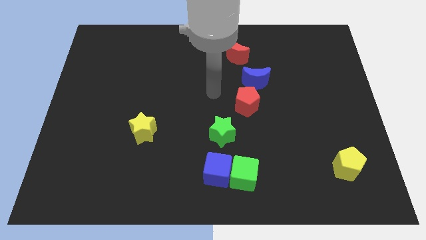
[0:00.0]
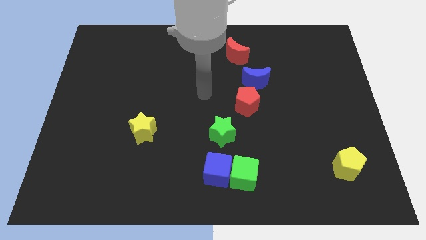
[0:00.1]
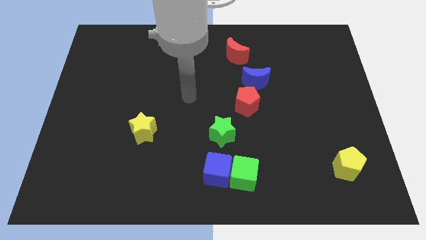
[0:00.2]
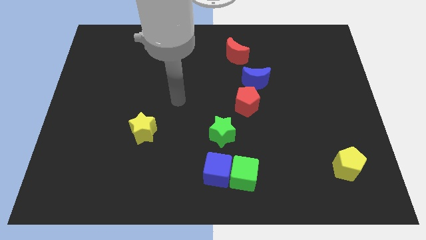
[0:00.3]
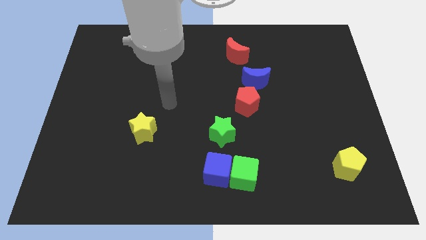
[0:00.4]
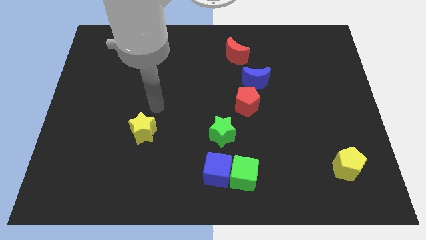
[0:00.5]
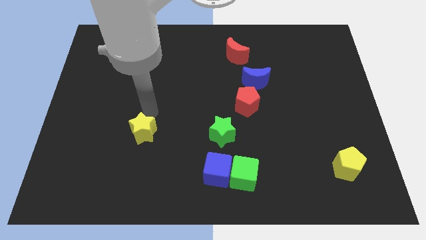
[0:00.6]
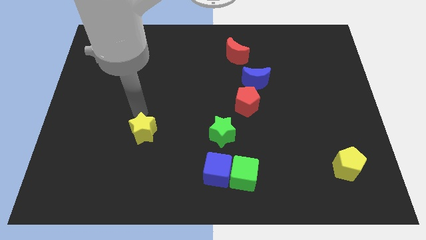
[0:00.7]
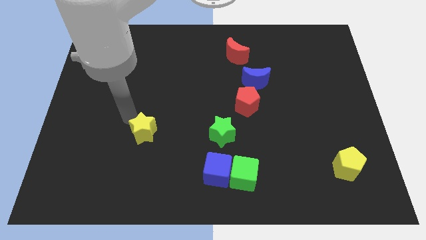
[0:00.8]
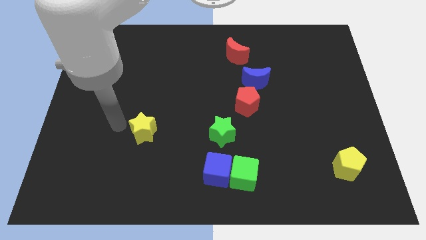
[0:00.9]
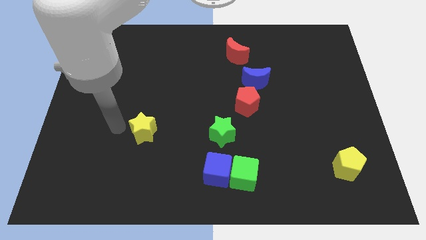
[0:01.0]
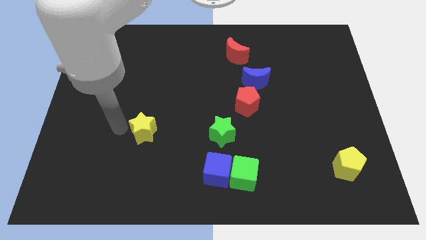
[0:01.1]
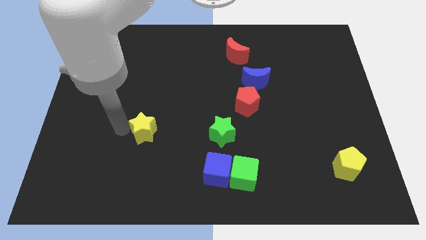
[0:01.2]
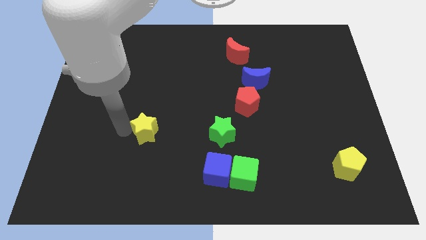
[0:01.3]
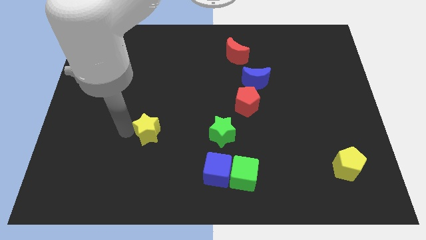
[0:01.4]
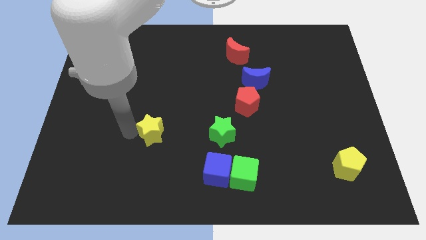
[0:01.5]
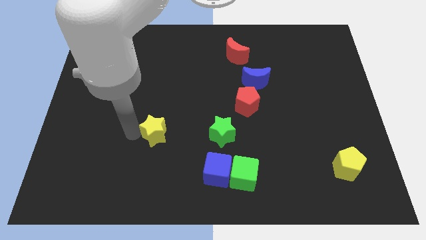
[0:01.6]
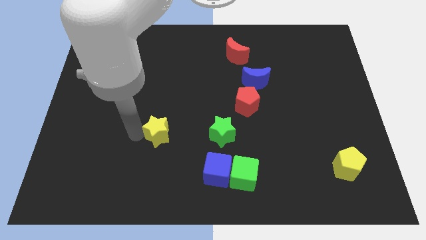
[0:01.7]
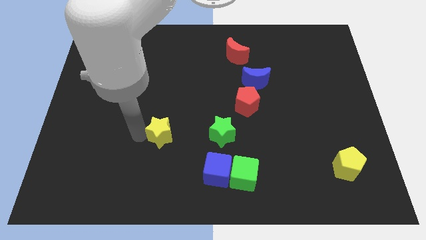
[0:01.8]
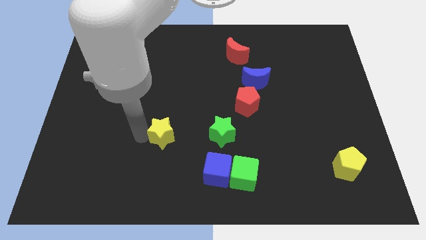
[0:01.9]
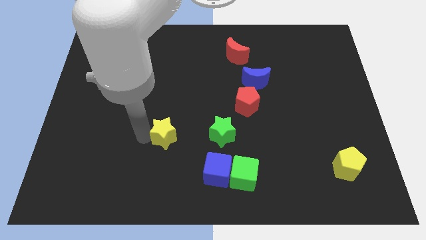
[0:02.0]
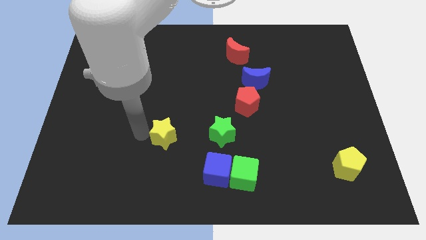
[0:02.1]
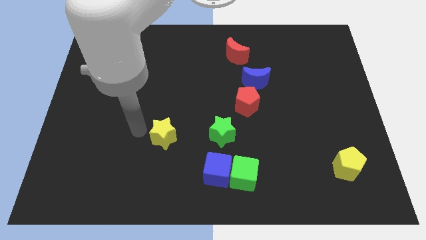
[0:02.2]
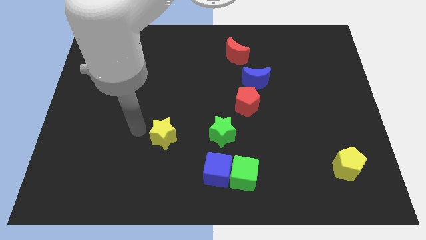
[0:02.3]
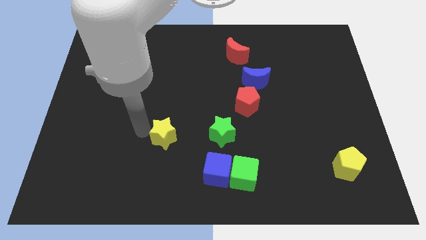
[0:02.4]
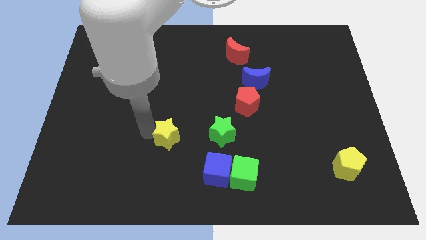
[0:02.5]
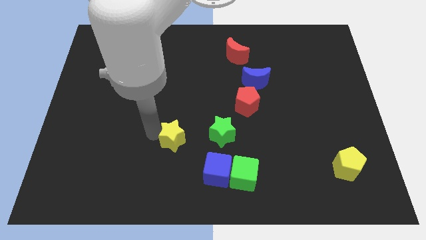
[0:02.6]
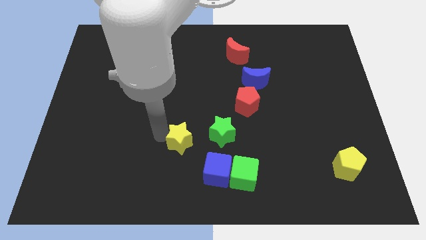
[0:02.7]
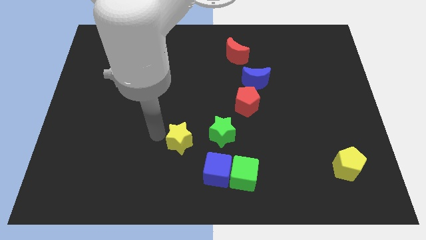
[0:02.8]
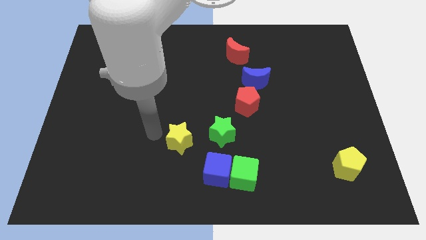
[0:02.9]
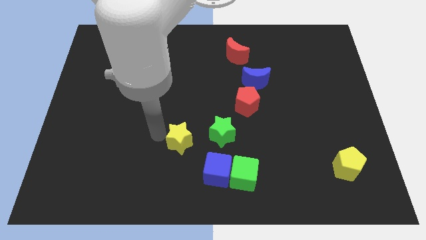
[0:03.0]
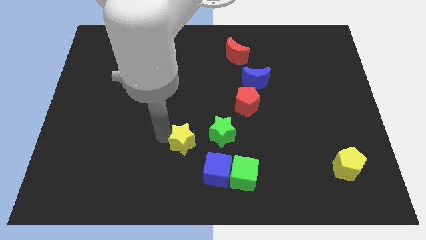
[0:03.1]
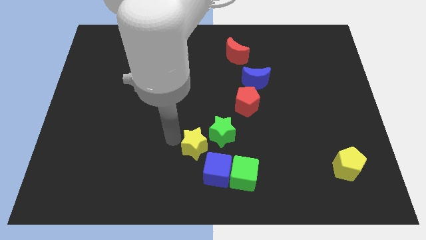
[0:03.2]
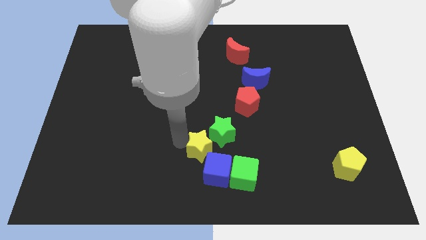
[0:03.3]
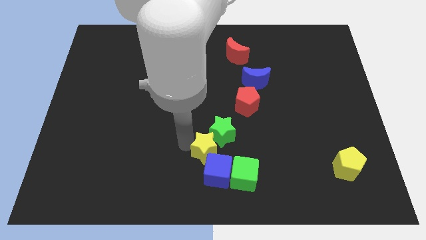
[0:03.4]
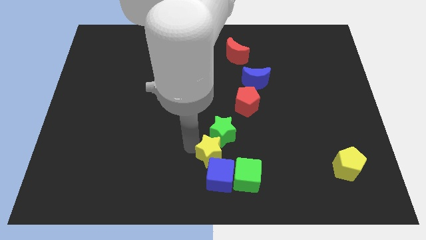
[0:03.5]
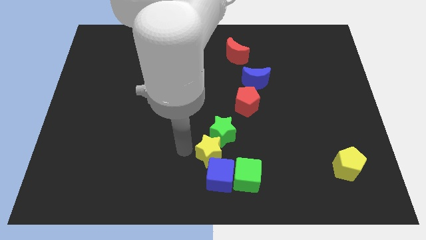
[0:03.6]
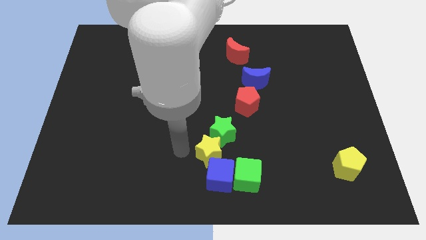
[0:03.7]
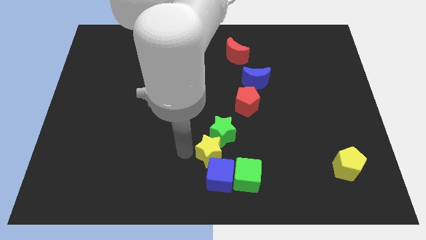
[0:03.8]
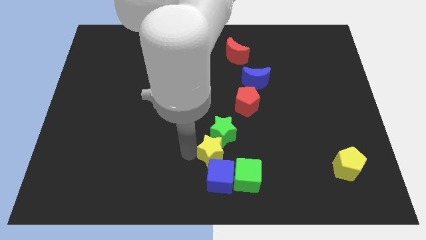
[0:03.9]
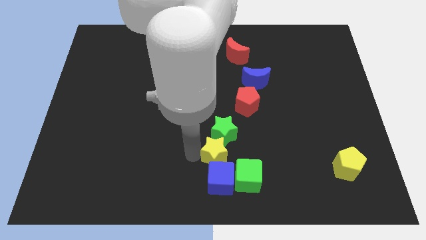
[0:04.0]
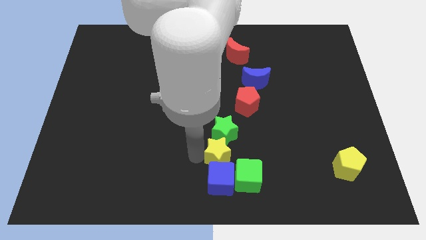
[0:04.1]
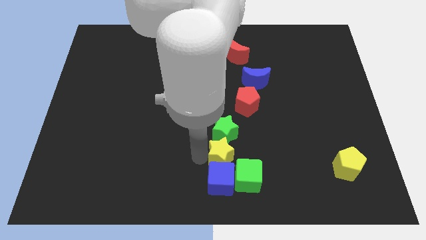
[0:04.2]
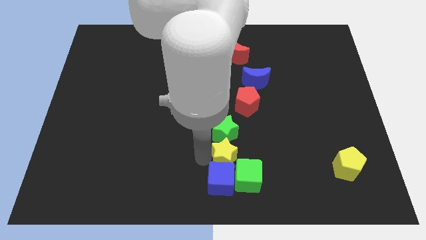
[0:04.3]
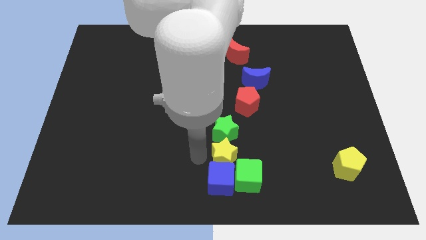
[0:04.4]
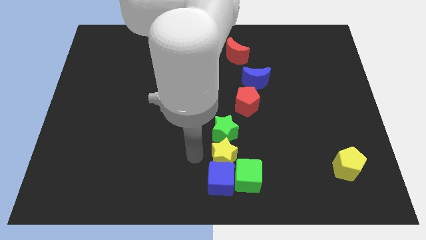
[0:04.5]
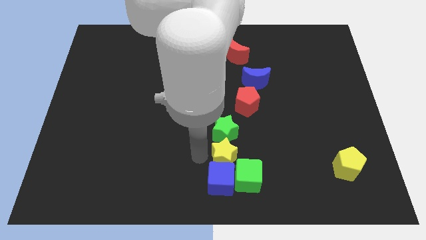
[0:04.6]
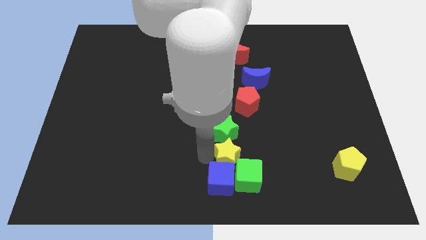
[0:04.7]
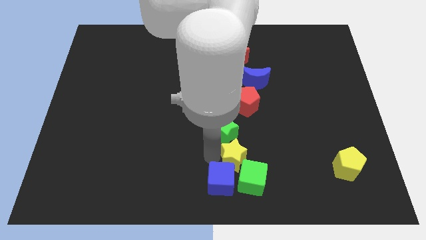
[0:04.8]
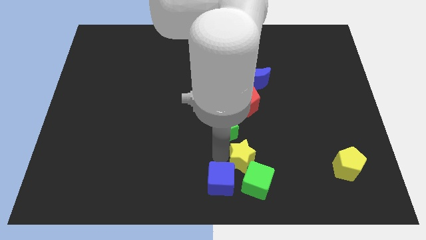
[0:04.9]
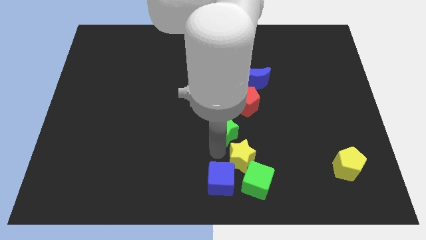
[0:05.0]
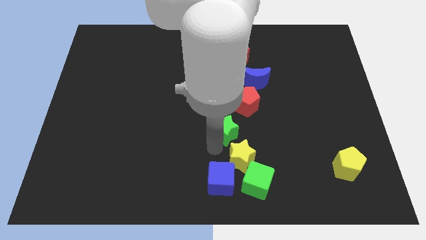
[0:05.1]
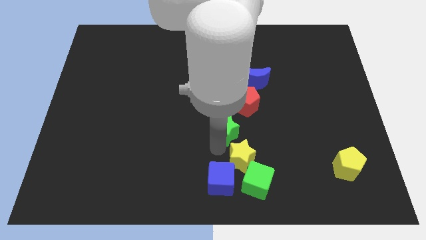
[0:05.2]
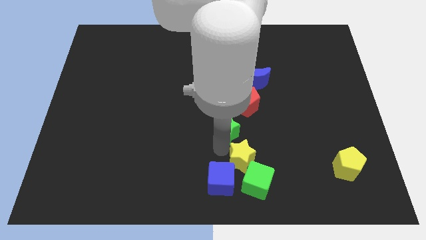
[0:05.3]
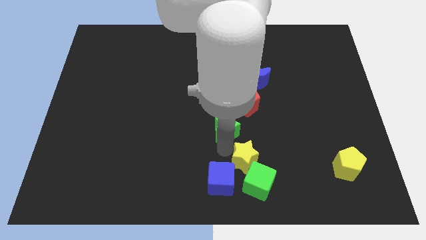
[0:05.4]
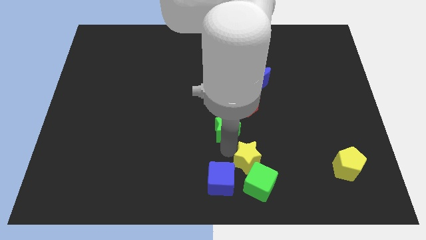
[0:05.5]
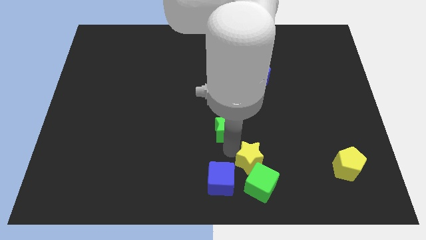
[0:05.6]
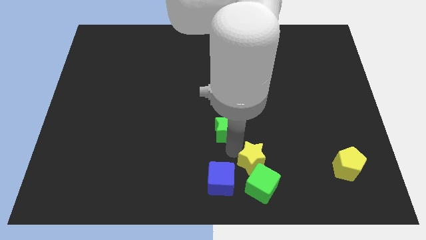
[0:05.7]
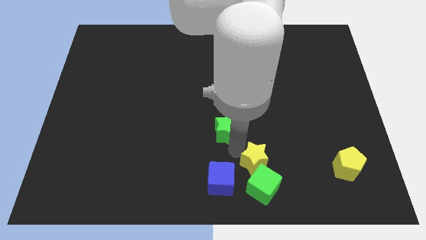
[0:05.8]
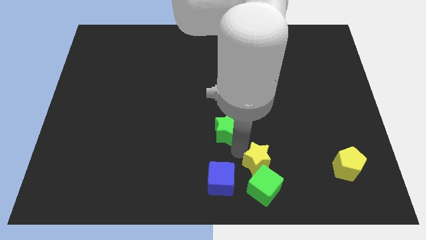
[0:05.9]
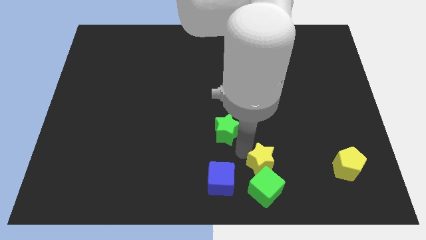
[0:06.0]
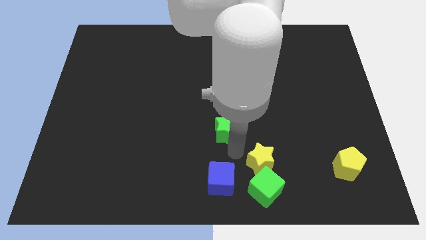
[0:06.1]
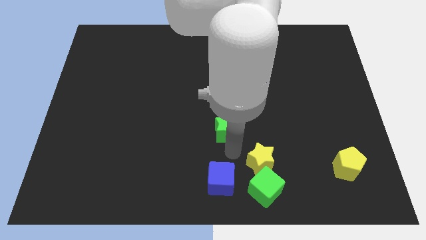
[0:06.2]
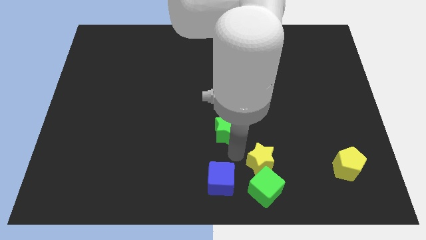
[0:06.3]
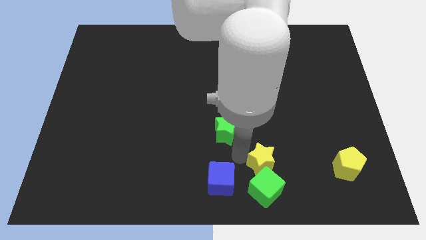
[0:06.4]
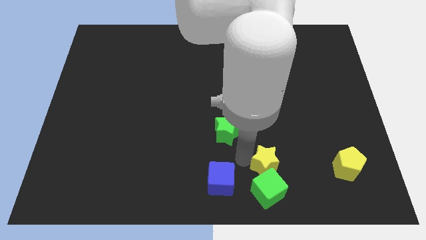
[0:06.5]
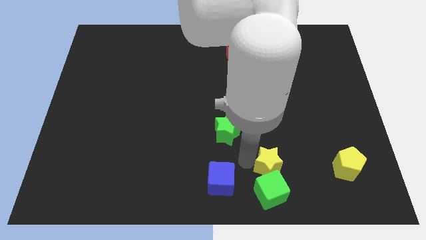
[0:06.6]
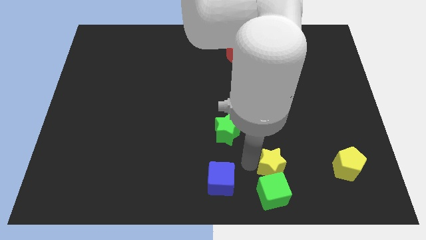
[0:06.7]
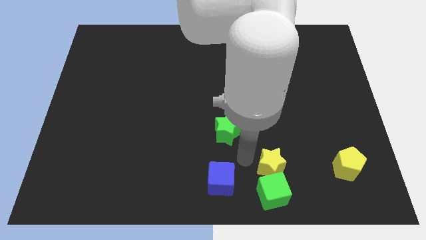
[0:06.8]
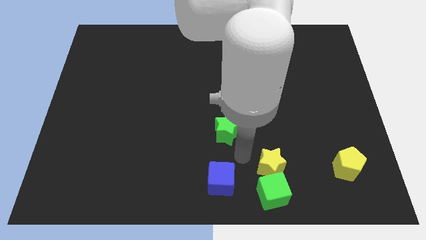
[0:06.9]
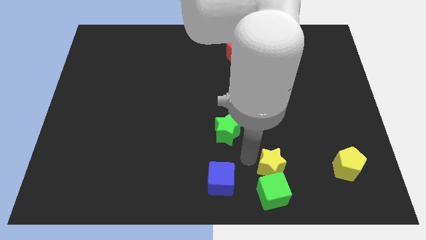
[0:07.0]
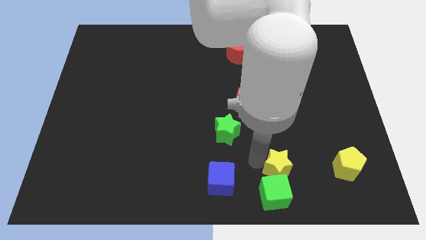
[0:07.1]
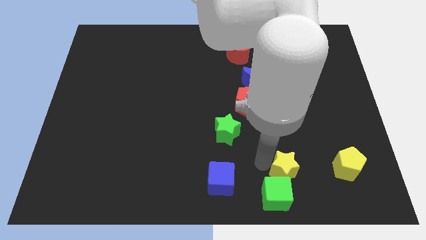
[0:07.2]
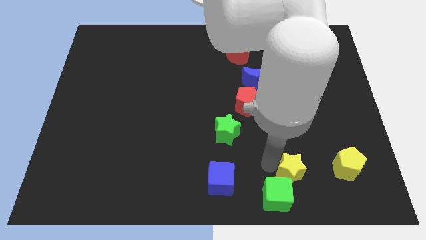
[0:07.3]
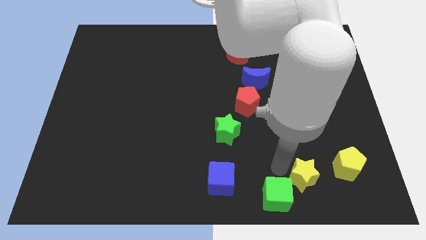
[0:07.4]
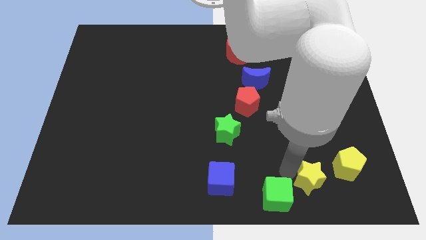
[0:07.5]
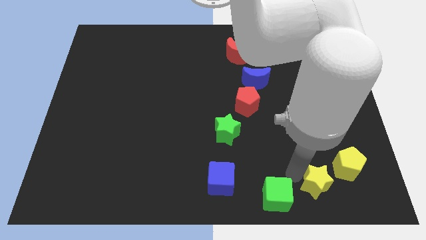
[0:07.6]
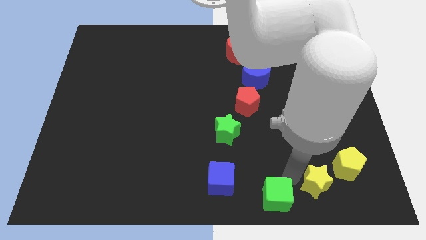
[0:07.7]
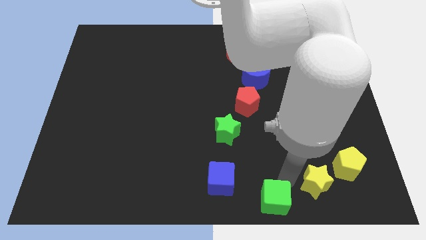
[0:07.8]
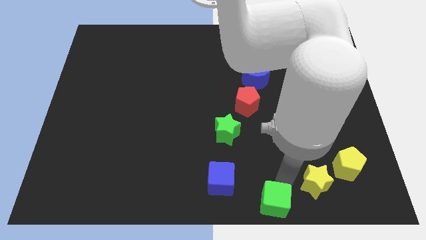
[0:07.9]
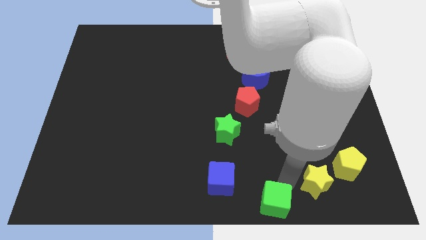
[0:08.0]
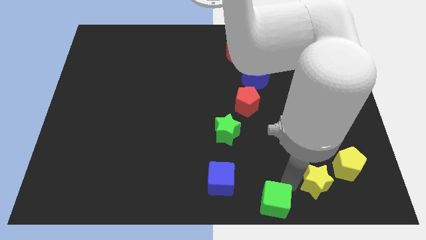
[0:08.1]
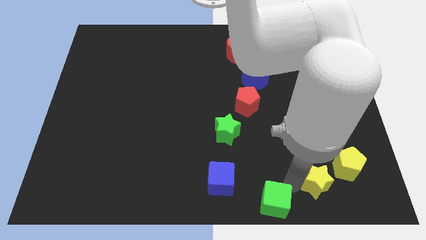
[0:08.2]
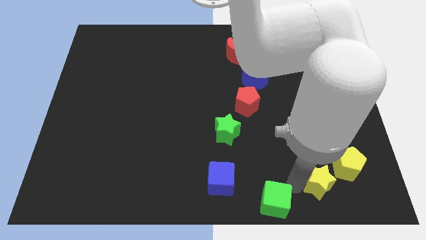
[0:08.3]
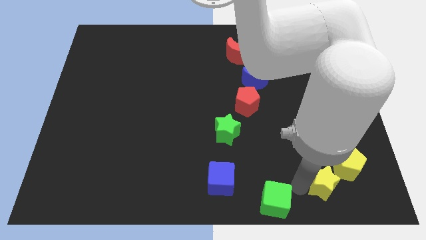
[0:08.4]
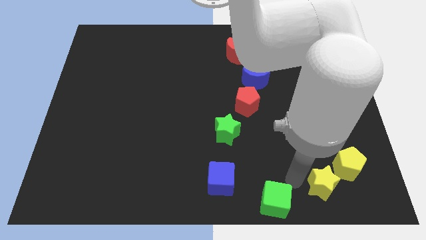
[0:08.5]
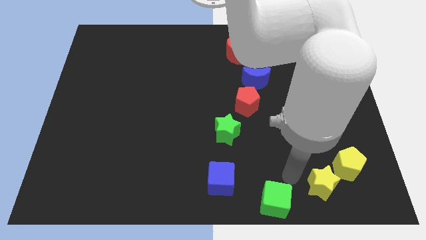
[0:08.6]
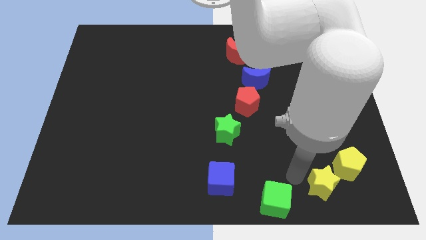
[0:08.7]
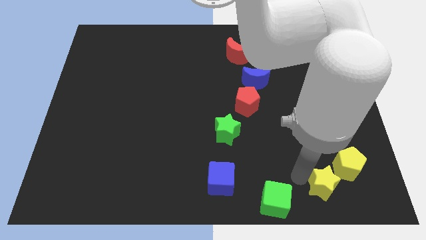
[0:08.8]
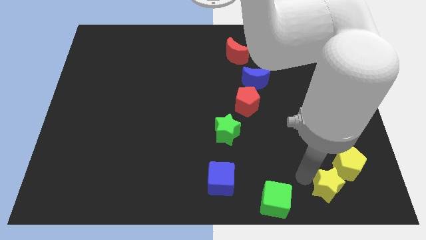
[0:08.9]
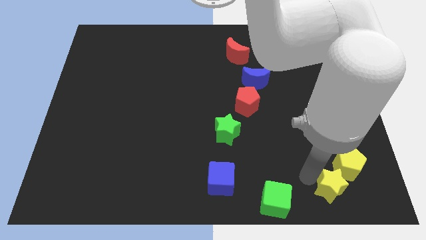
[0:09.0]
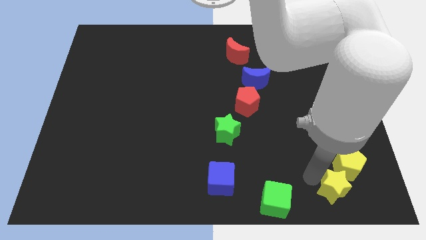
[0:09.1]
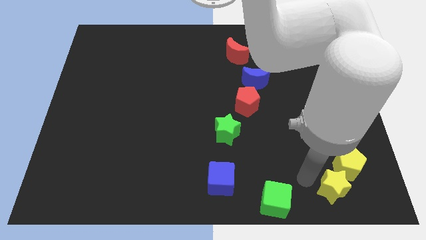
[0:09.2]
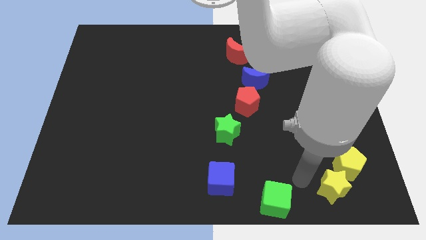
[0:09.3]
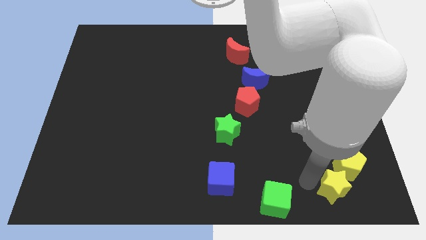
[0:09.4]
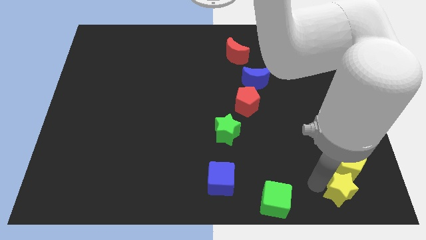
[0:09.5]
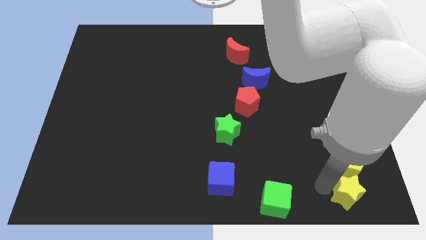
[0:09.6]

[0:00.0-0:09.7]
slide the yellow star to the lower right corner
